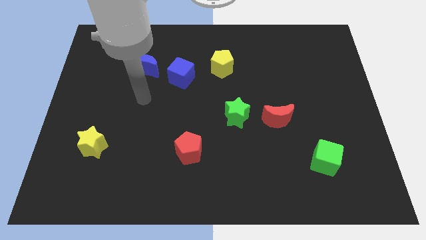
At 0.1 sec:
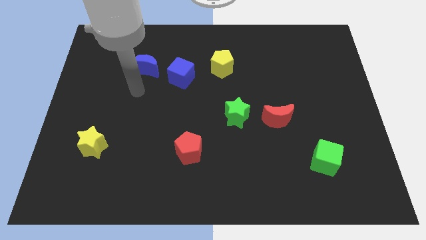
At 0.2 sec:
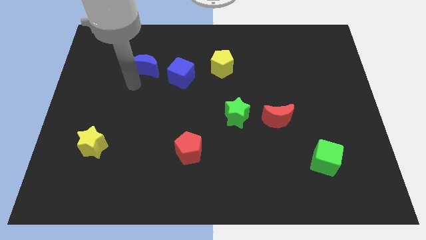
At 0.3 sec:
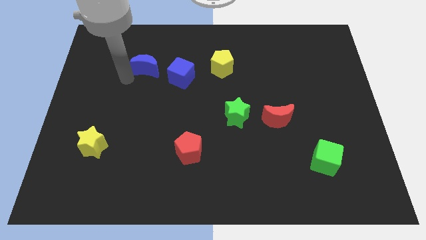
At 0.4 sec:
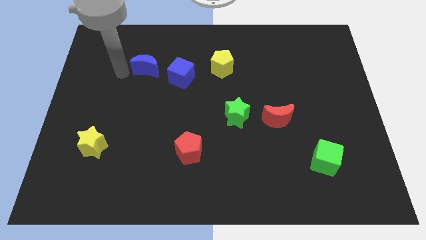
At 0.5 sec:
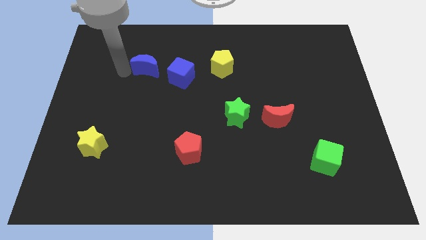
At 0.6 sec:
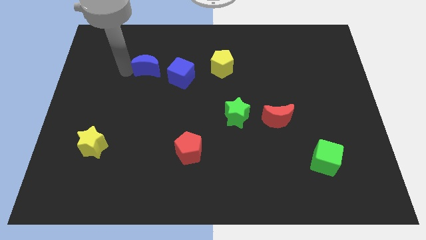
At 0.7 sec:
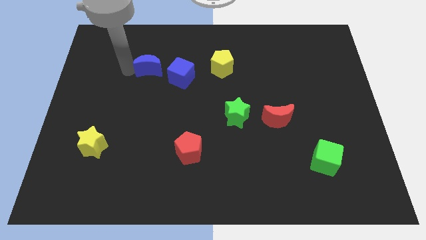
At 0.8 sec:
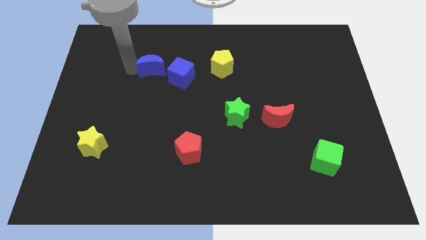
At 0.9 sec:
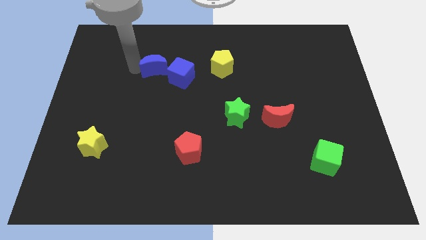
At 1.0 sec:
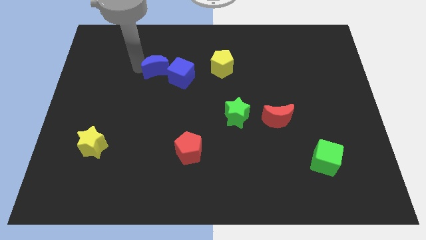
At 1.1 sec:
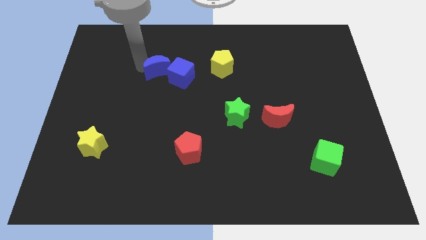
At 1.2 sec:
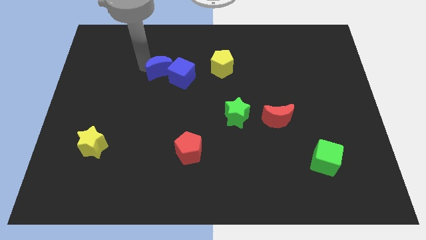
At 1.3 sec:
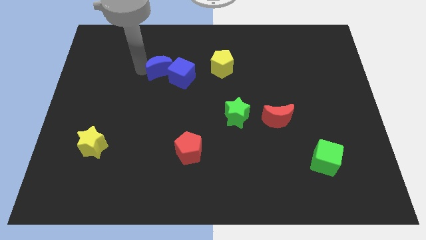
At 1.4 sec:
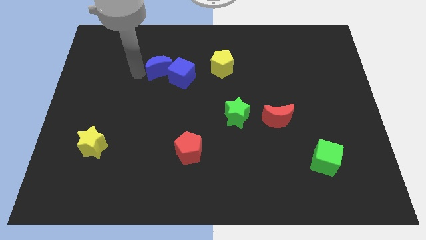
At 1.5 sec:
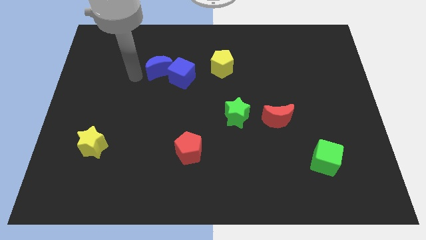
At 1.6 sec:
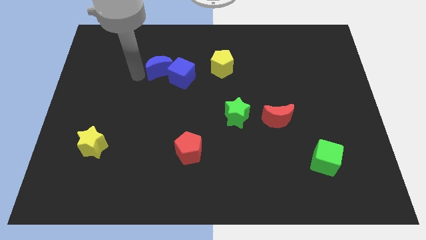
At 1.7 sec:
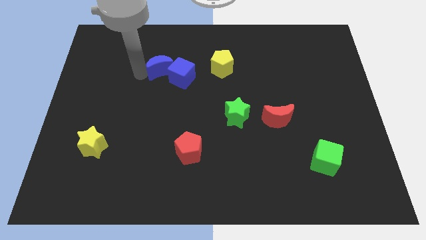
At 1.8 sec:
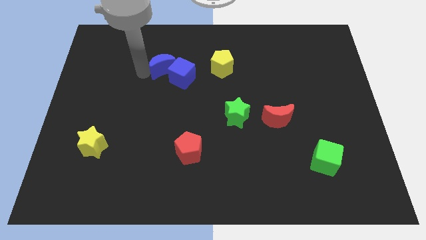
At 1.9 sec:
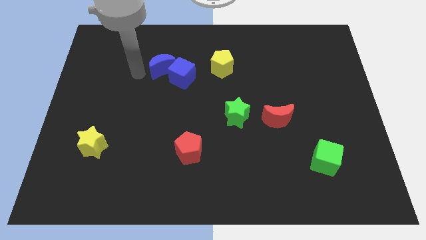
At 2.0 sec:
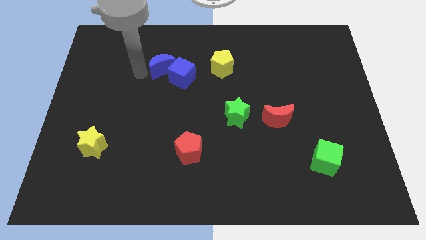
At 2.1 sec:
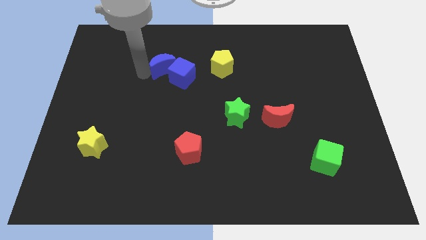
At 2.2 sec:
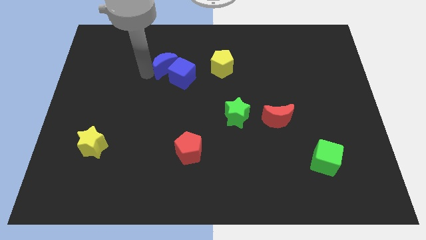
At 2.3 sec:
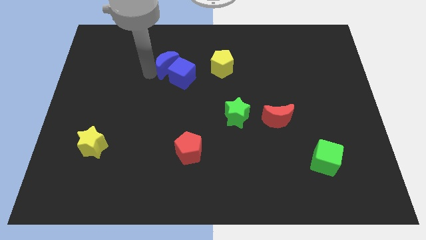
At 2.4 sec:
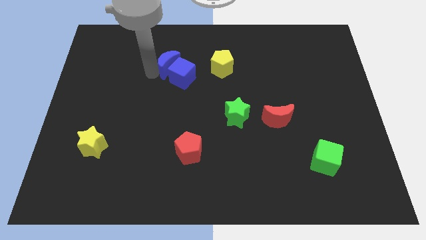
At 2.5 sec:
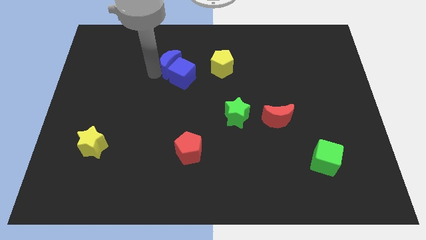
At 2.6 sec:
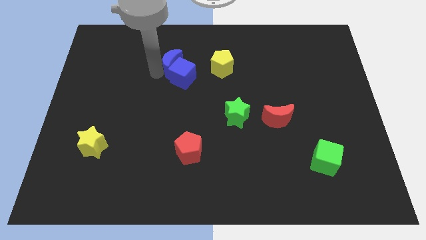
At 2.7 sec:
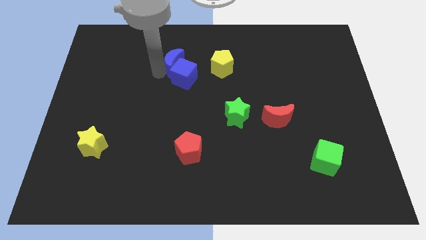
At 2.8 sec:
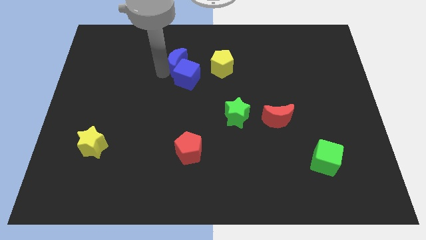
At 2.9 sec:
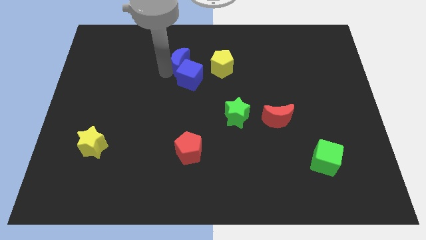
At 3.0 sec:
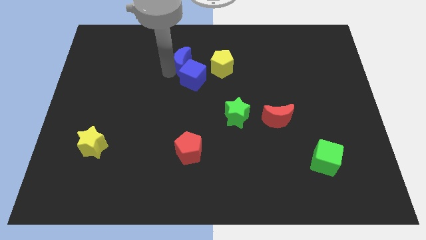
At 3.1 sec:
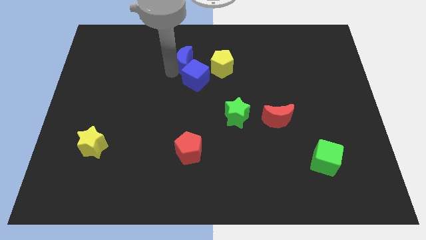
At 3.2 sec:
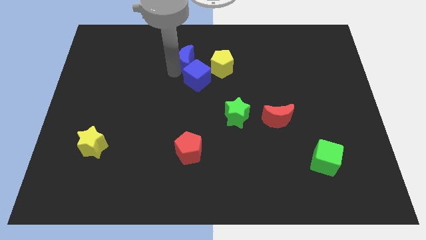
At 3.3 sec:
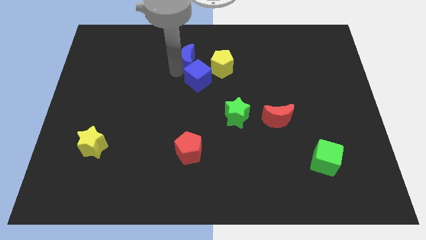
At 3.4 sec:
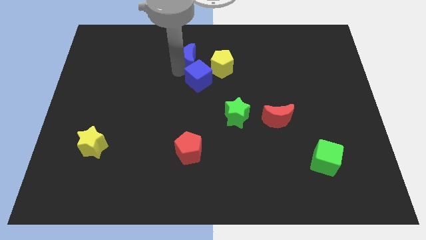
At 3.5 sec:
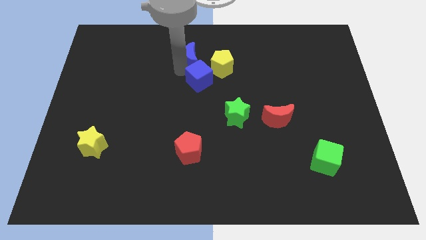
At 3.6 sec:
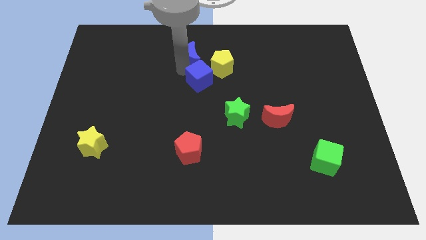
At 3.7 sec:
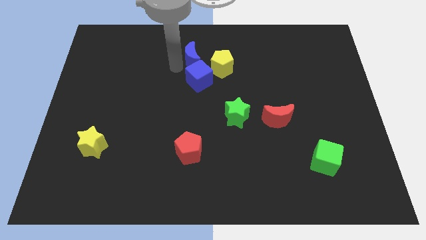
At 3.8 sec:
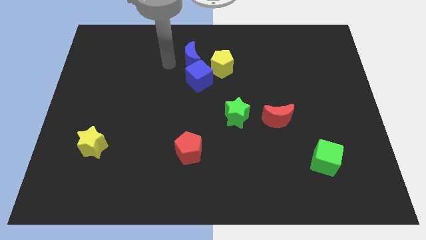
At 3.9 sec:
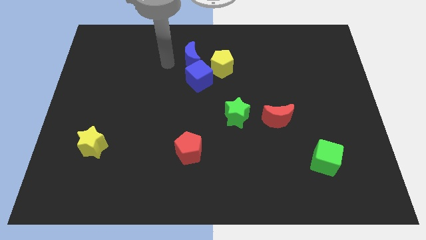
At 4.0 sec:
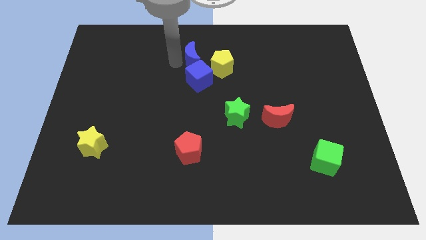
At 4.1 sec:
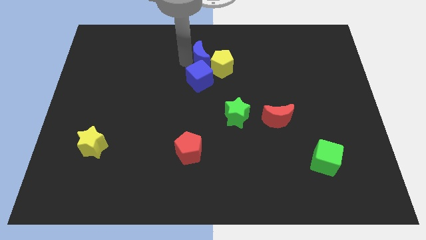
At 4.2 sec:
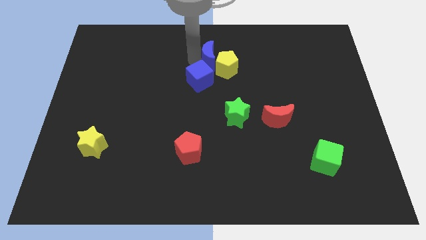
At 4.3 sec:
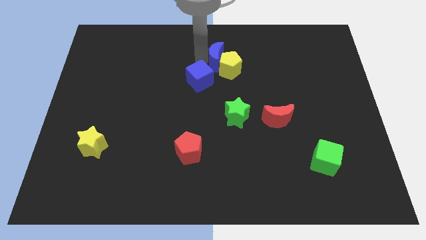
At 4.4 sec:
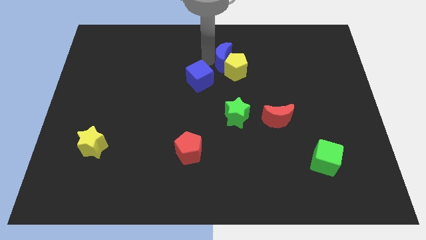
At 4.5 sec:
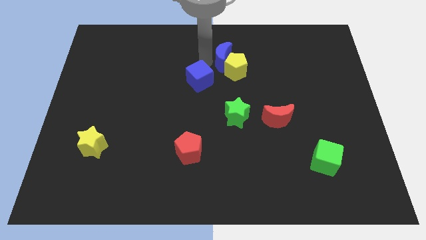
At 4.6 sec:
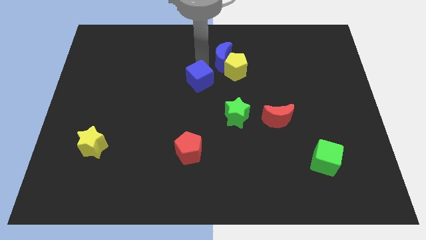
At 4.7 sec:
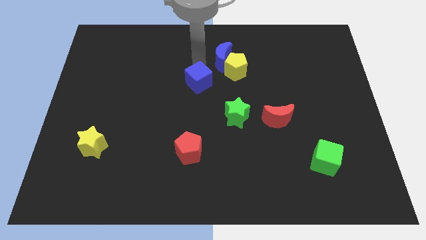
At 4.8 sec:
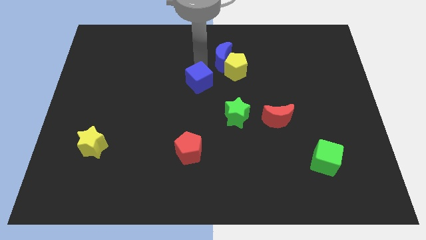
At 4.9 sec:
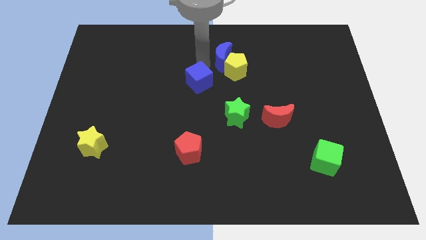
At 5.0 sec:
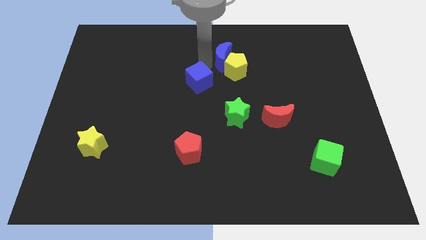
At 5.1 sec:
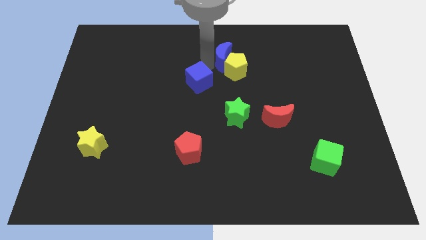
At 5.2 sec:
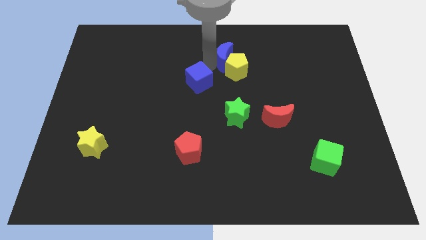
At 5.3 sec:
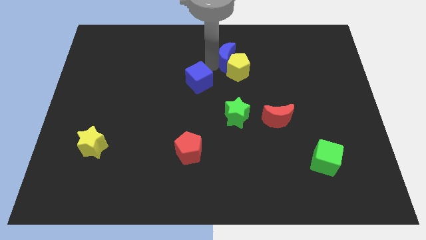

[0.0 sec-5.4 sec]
slide the blue moon to the right

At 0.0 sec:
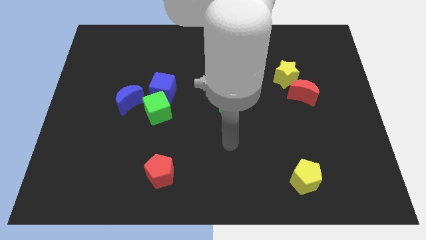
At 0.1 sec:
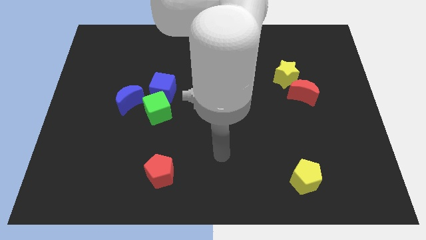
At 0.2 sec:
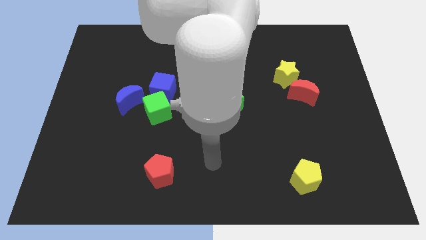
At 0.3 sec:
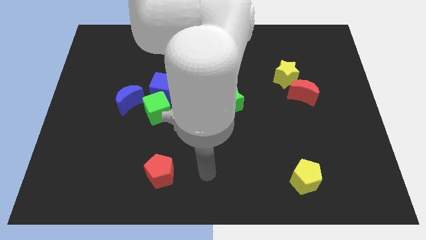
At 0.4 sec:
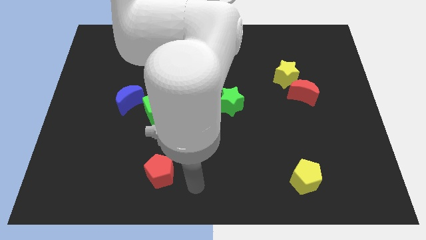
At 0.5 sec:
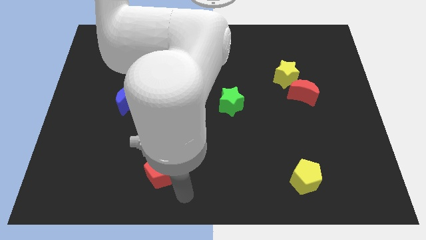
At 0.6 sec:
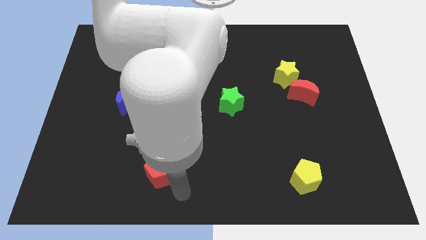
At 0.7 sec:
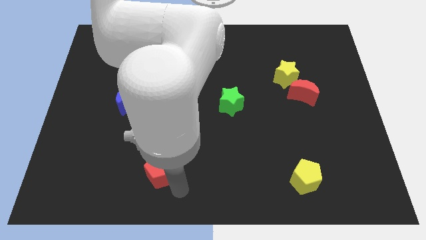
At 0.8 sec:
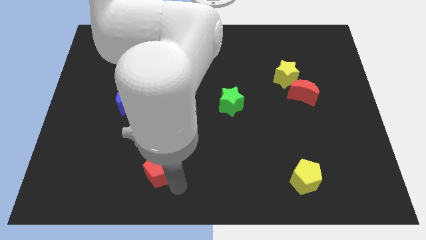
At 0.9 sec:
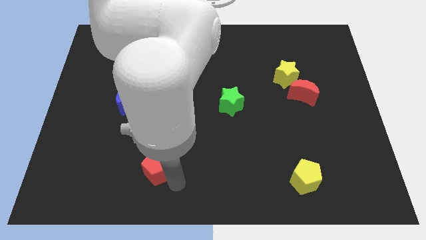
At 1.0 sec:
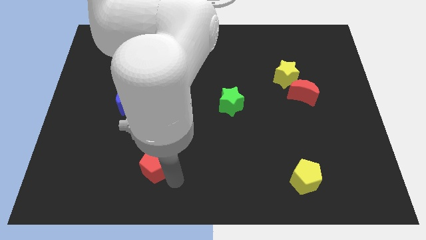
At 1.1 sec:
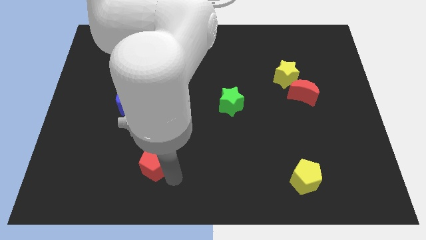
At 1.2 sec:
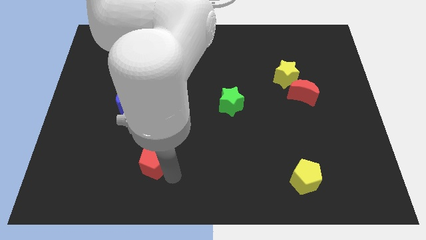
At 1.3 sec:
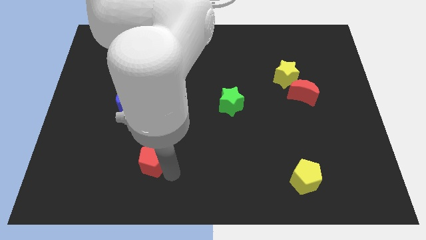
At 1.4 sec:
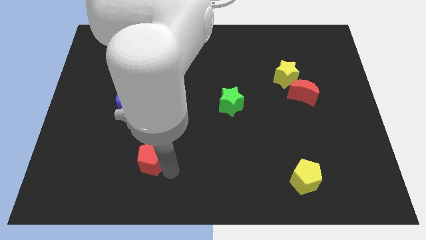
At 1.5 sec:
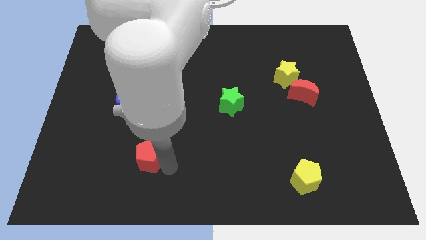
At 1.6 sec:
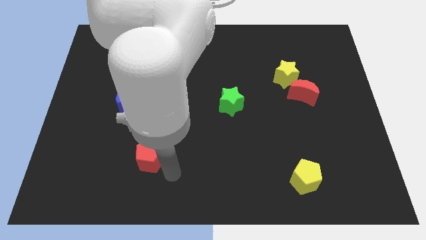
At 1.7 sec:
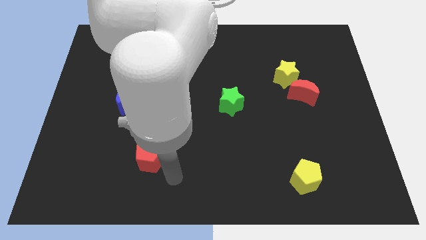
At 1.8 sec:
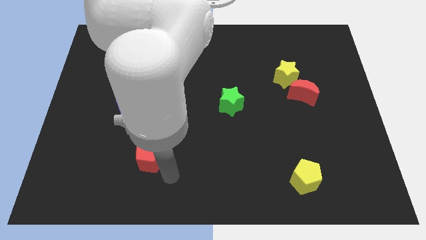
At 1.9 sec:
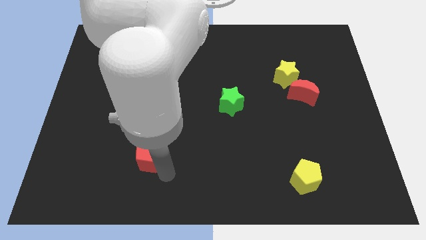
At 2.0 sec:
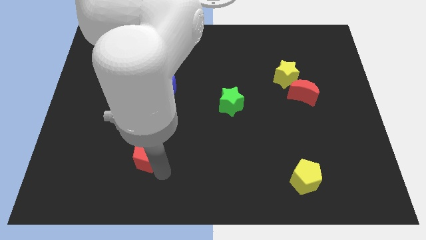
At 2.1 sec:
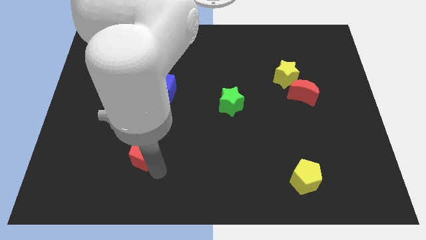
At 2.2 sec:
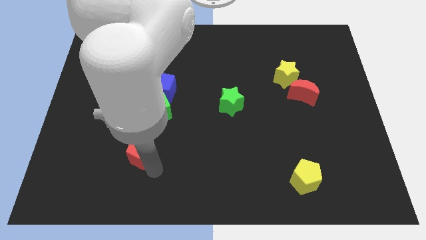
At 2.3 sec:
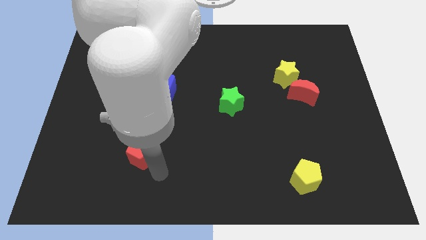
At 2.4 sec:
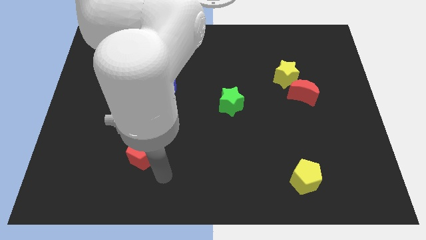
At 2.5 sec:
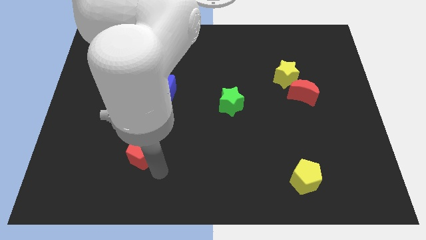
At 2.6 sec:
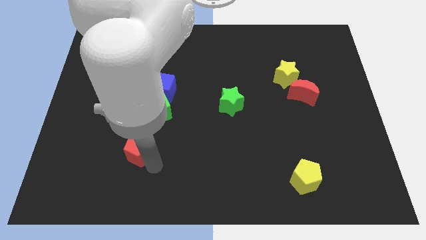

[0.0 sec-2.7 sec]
slightly push the red pentagon upwards and left diagonally
